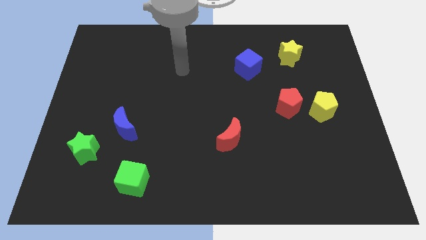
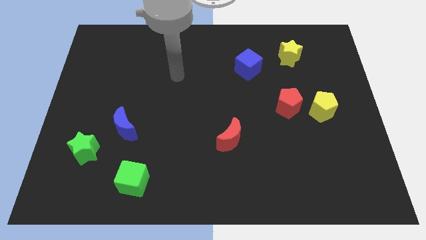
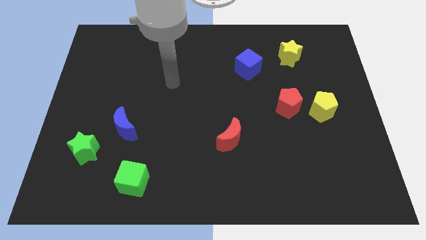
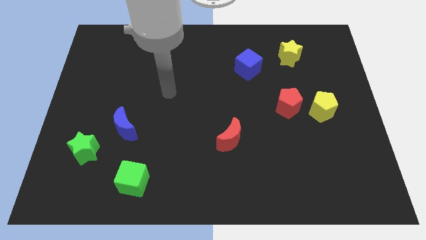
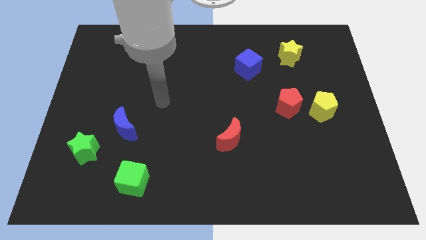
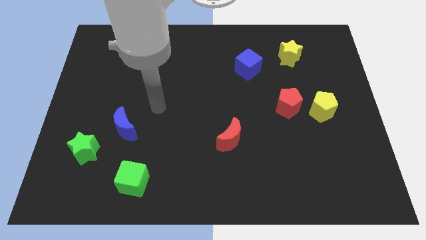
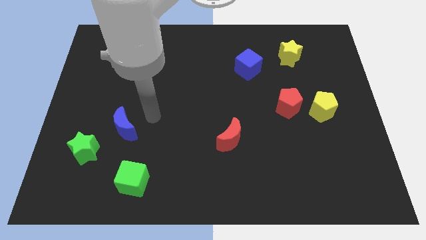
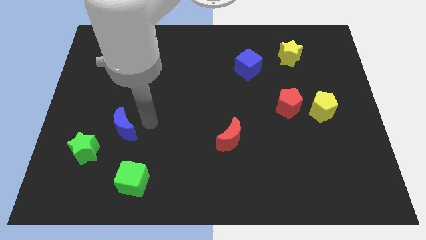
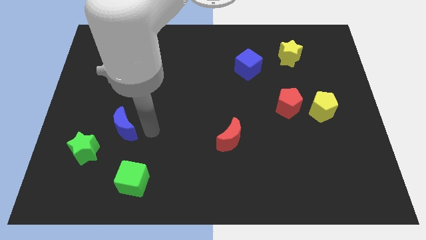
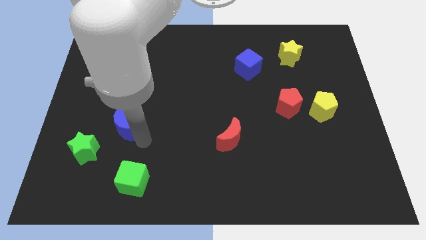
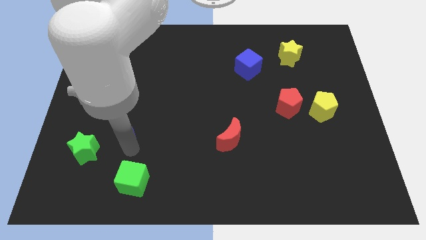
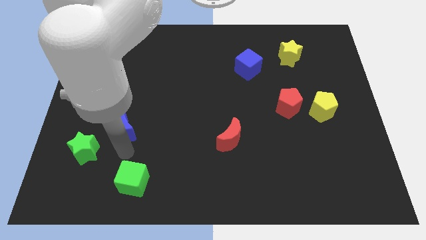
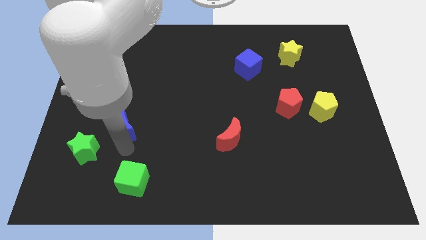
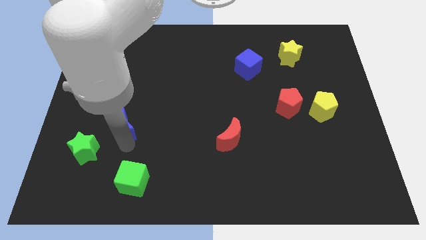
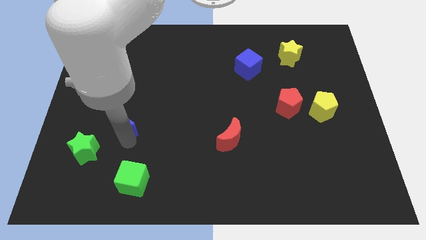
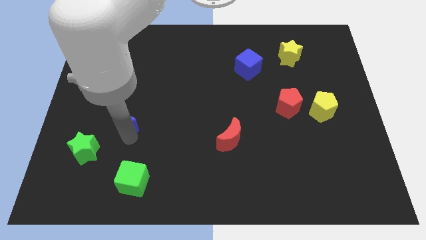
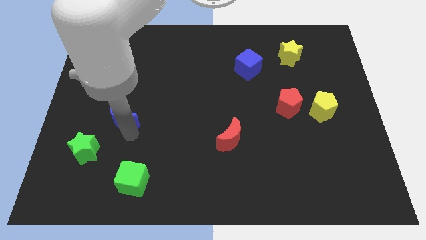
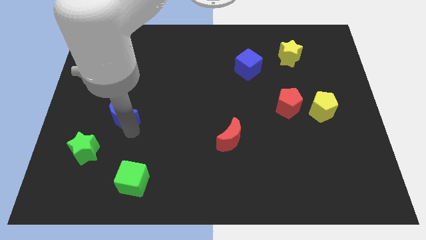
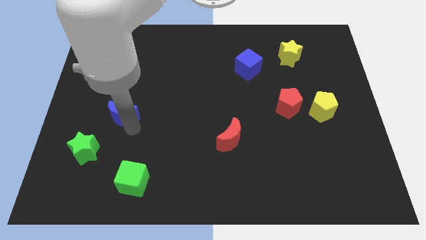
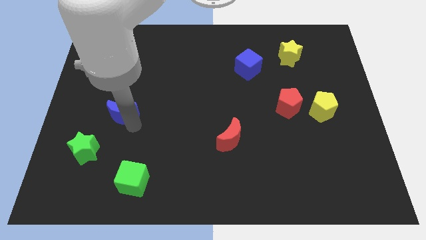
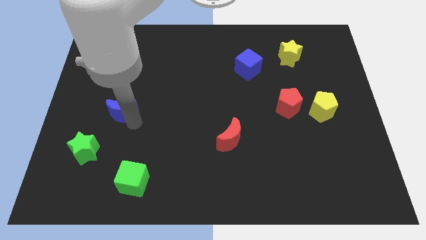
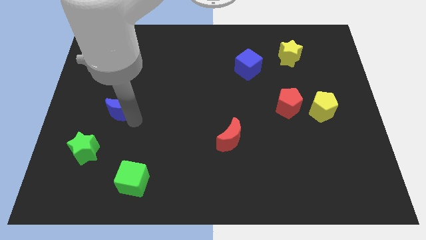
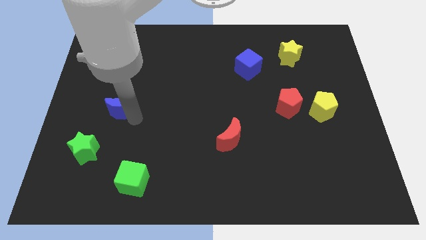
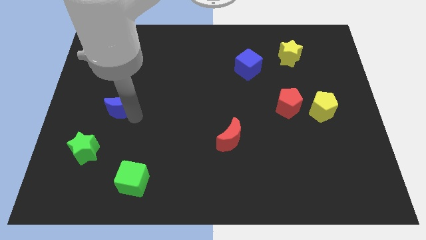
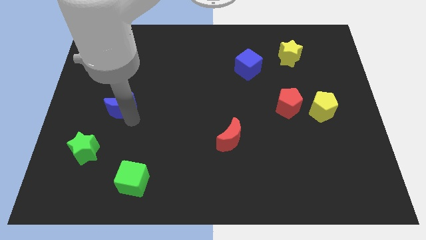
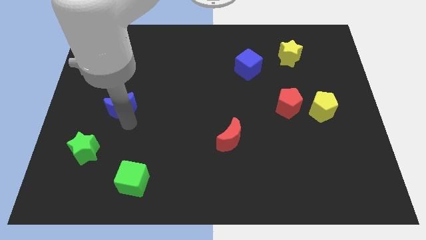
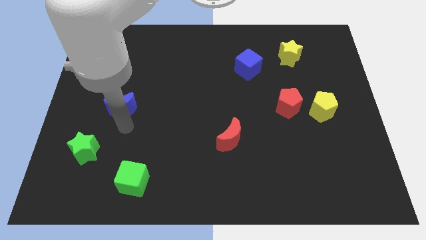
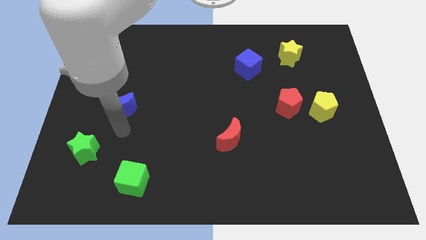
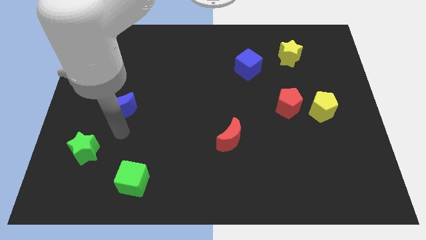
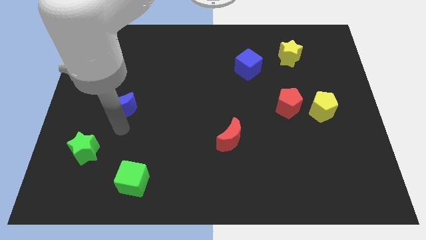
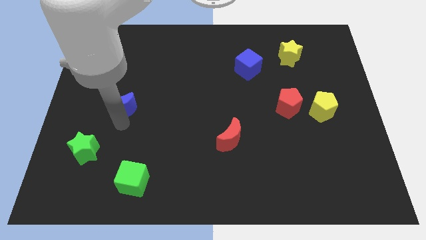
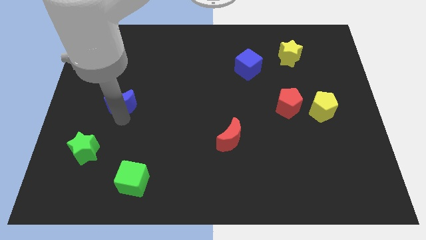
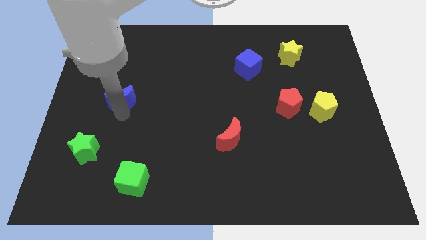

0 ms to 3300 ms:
move the blue moon a little bit up

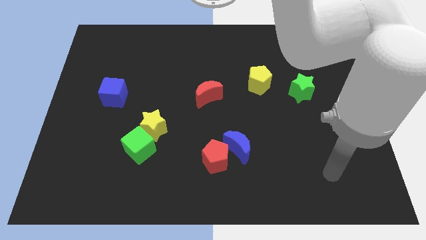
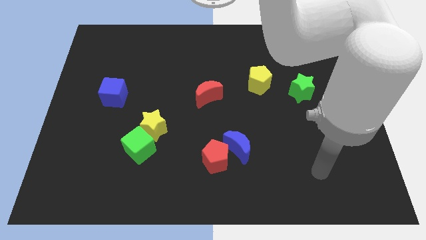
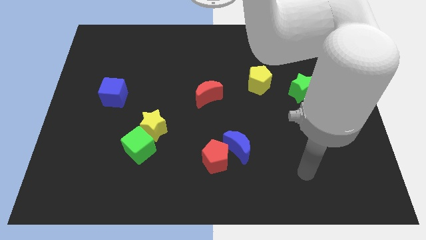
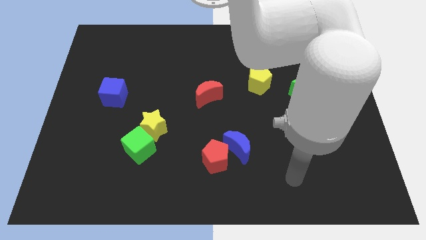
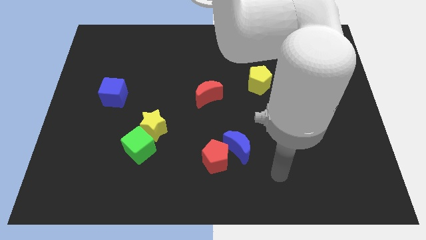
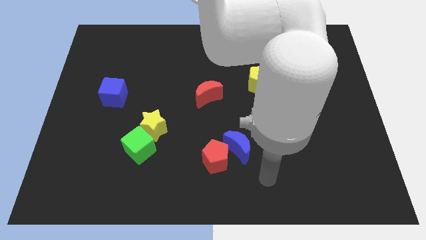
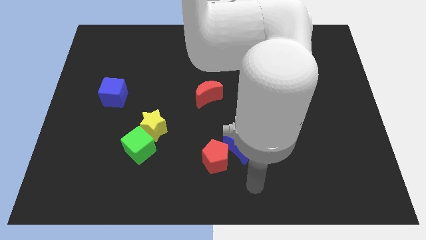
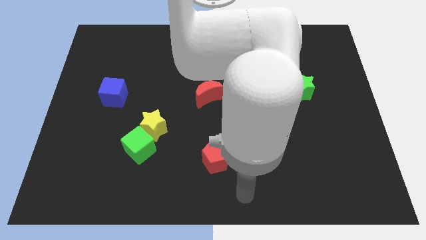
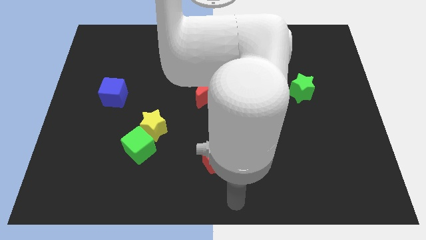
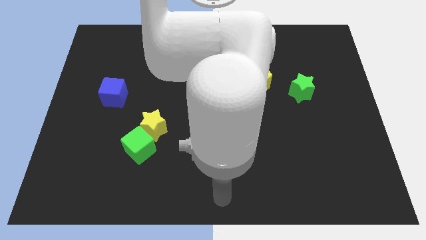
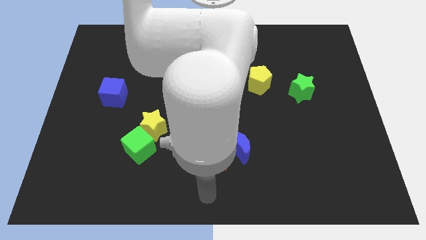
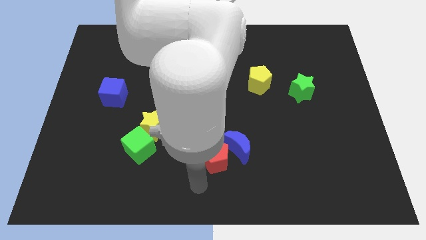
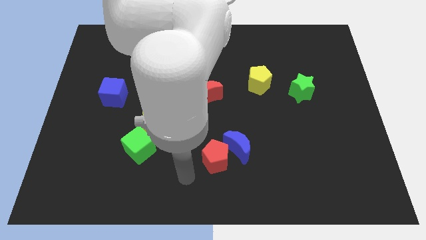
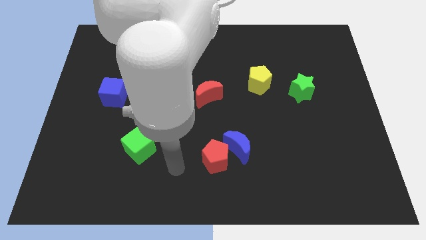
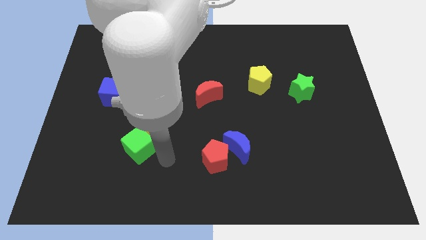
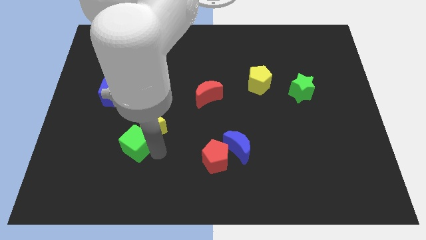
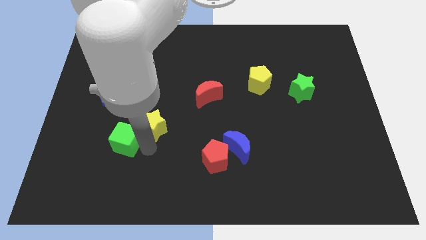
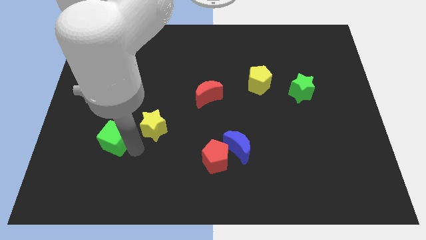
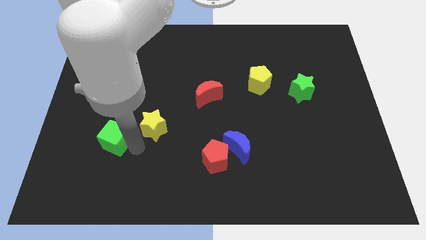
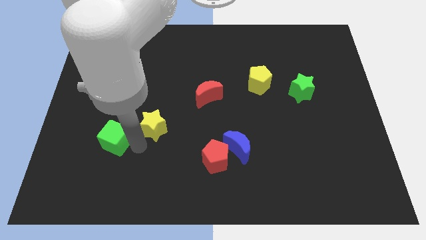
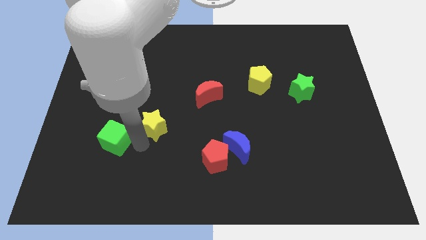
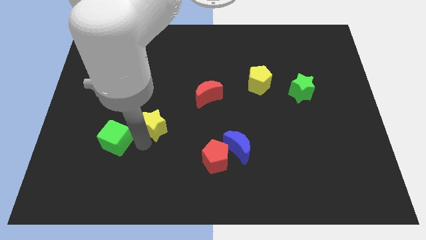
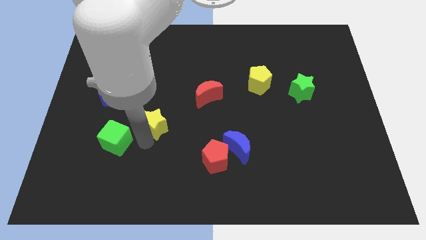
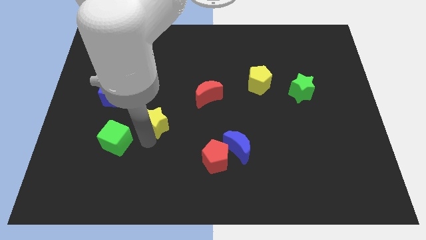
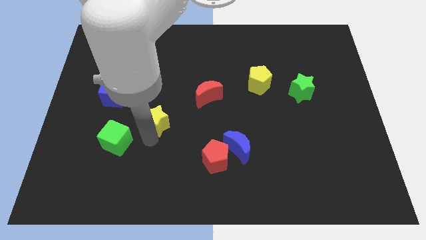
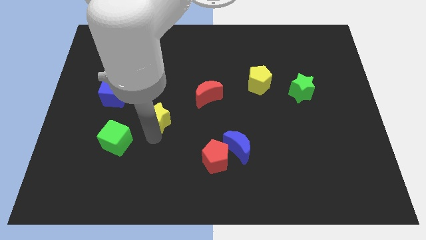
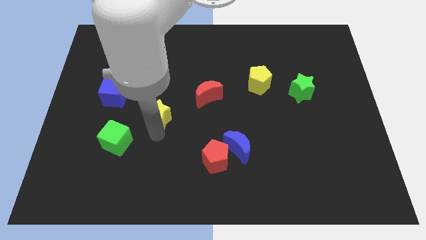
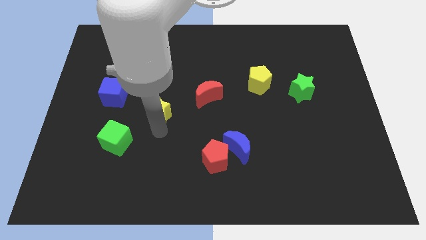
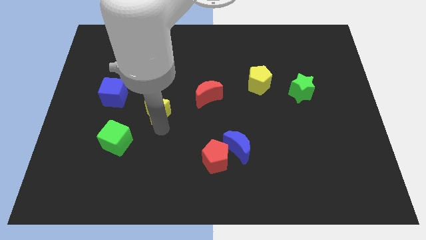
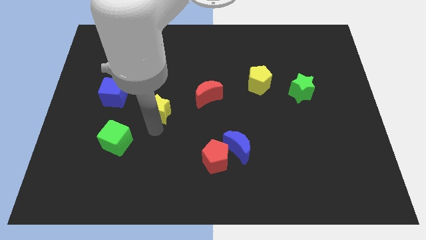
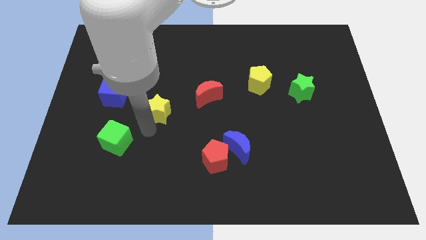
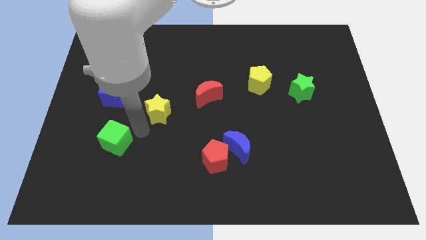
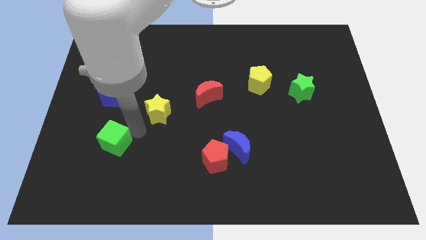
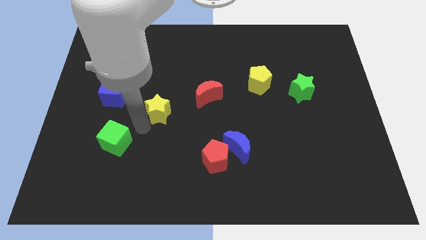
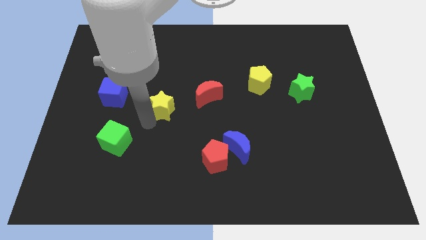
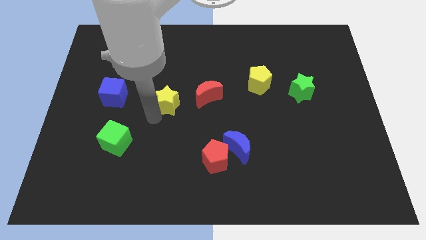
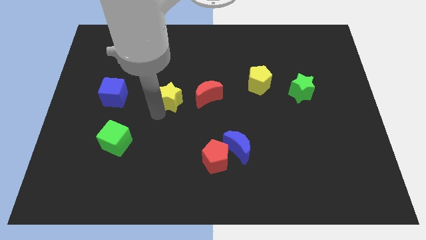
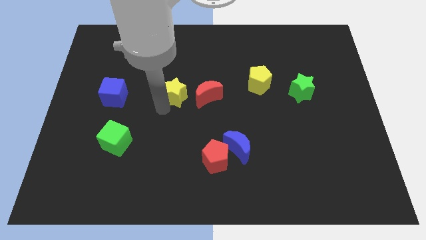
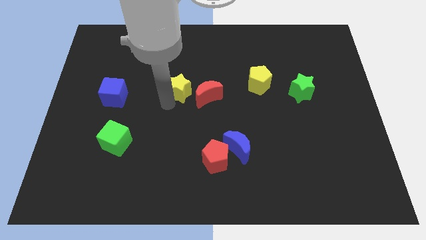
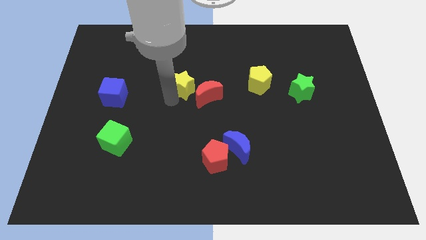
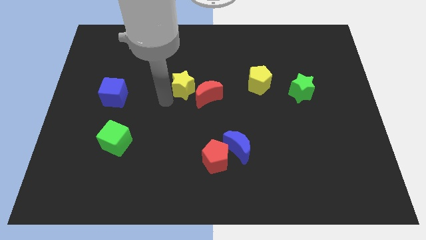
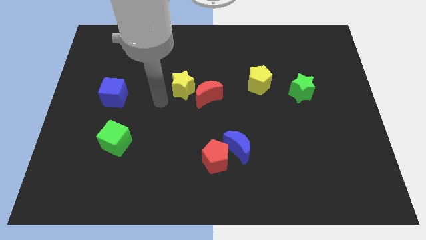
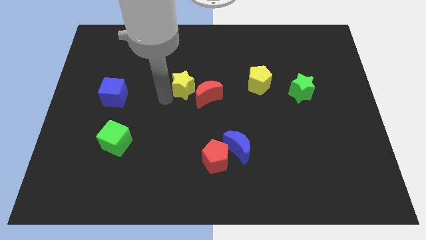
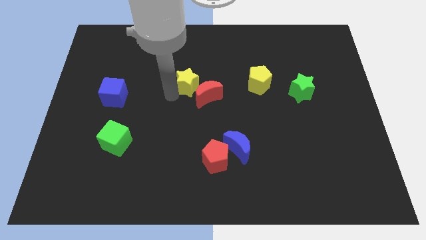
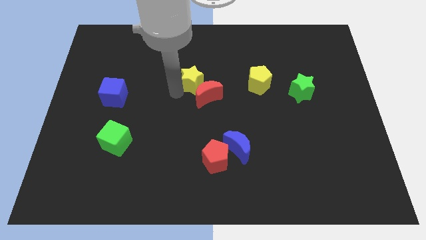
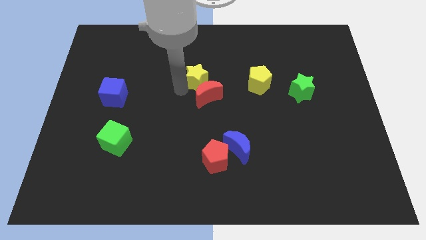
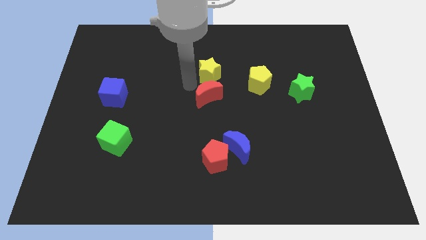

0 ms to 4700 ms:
move the yellow star upwards and right
